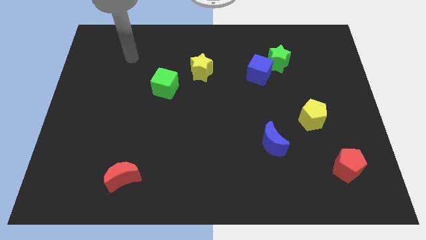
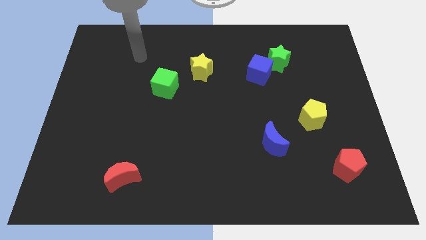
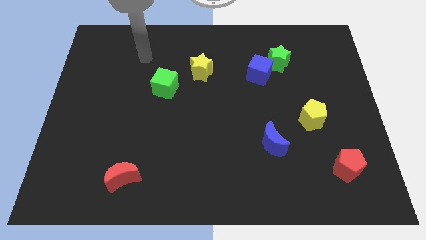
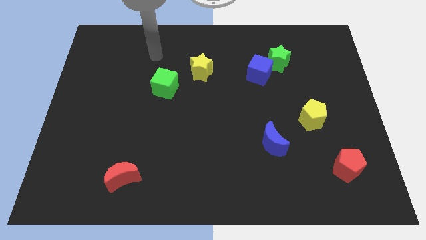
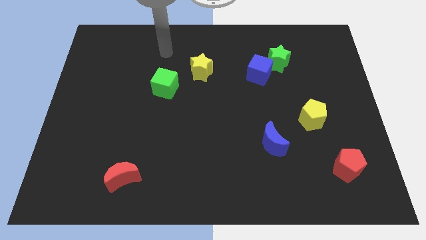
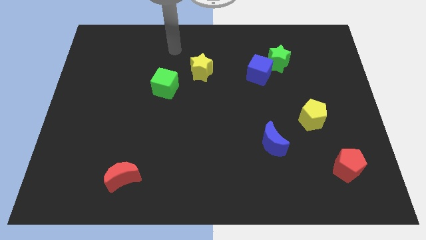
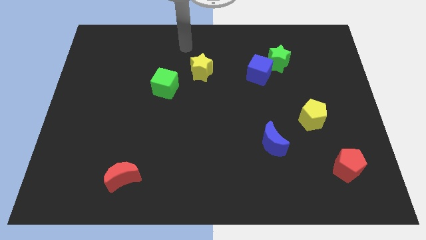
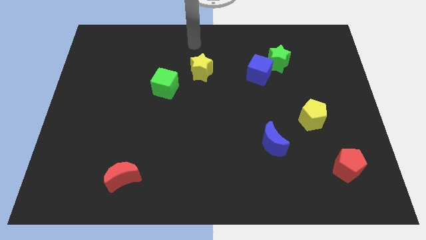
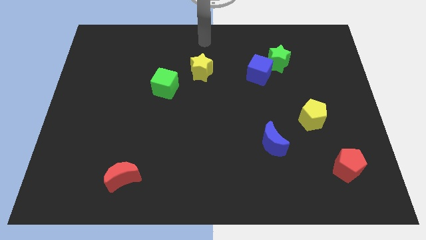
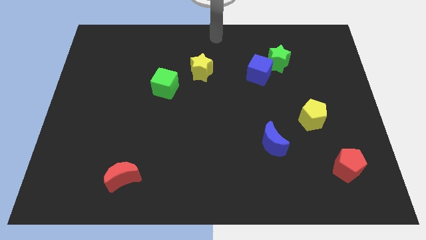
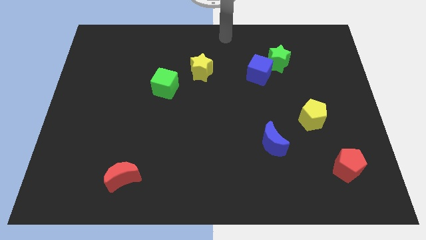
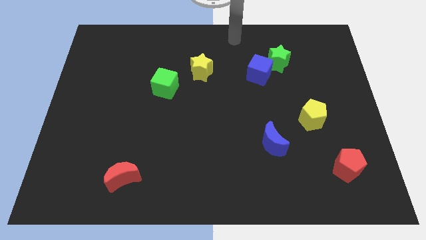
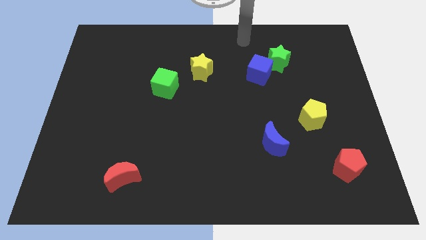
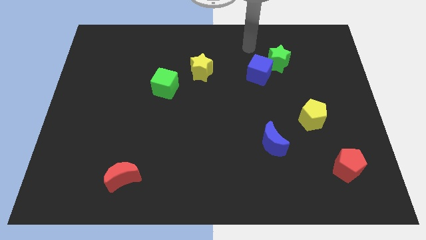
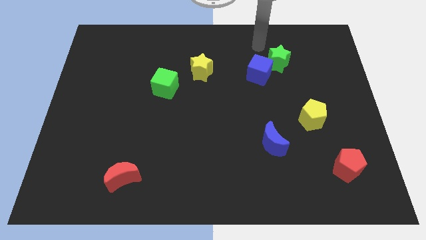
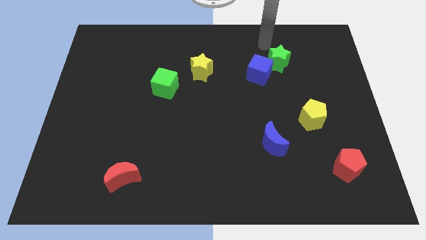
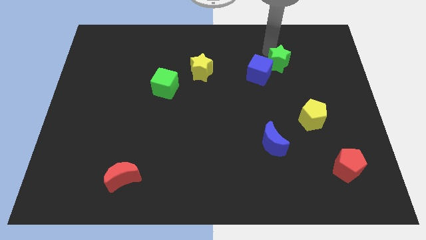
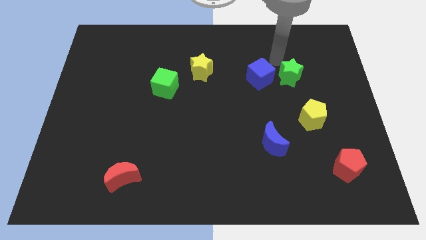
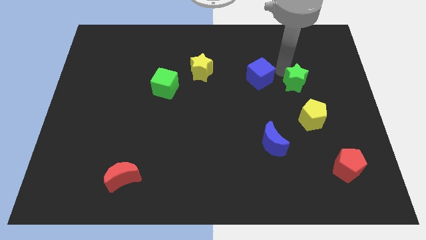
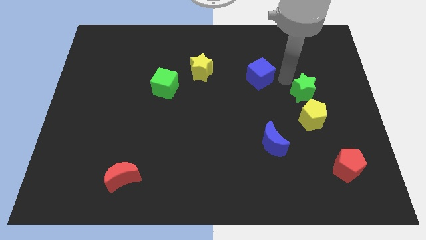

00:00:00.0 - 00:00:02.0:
move the blue cube away from the green star

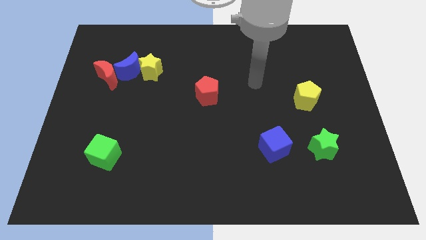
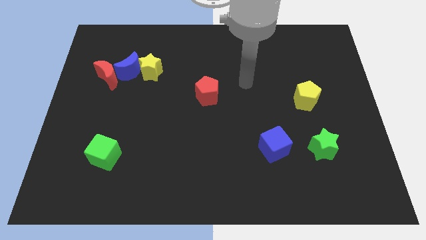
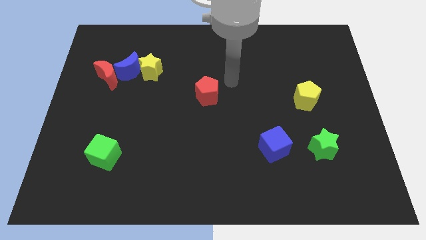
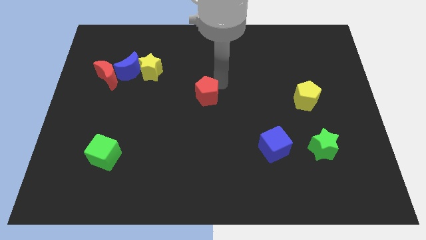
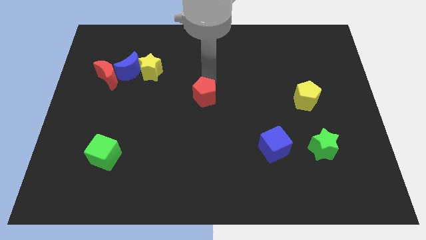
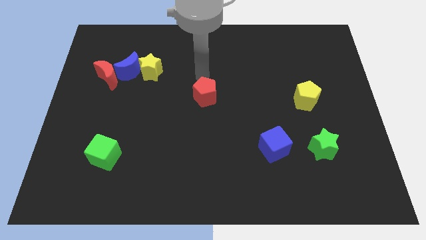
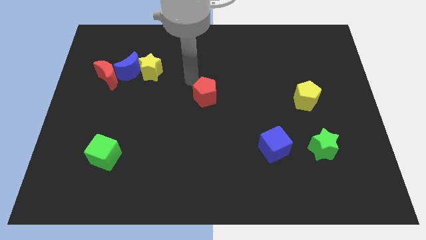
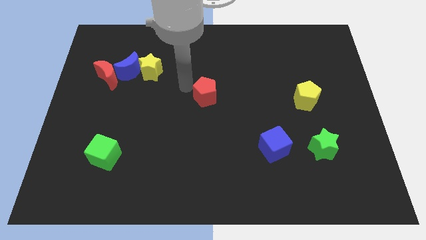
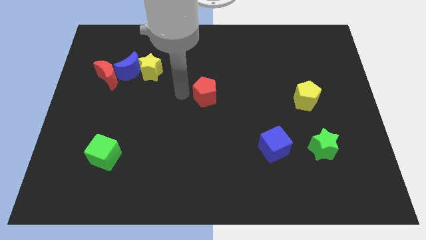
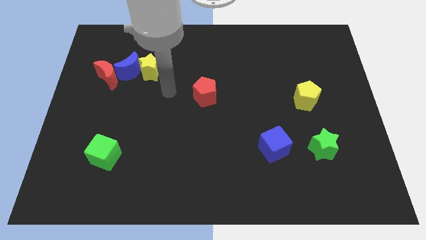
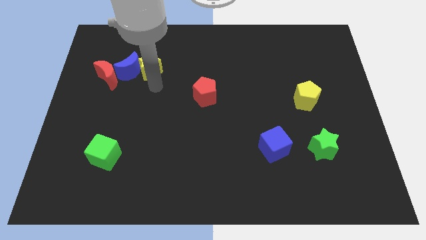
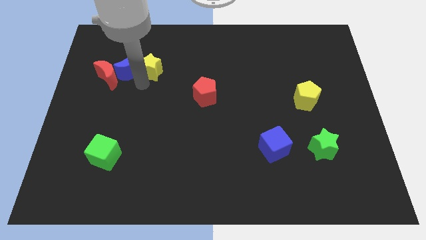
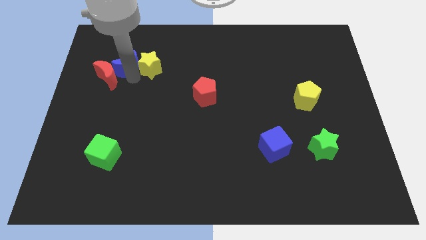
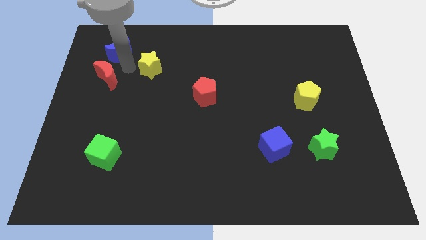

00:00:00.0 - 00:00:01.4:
move the yellow star away from the blue moon

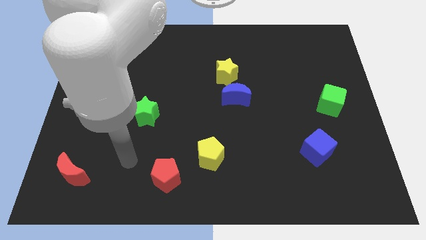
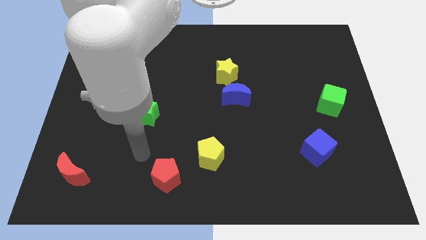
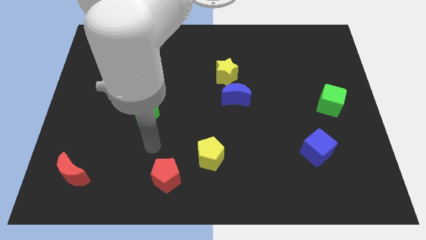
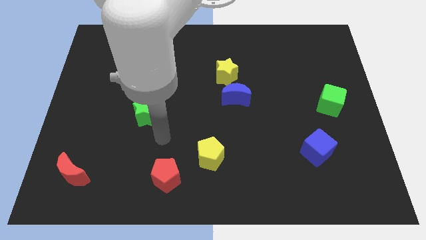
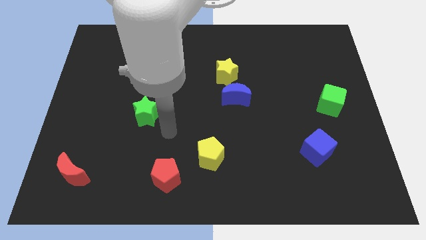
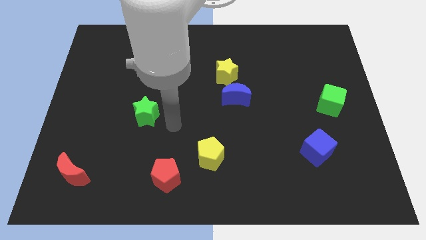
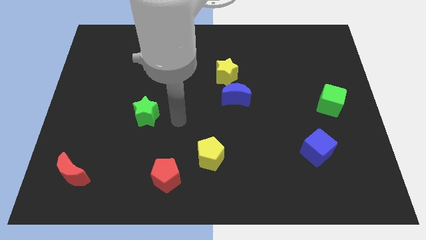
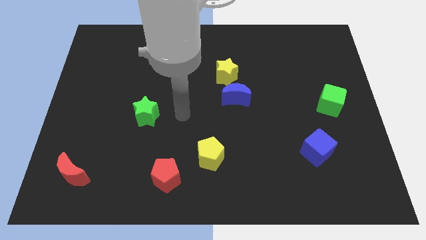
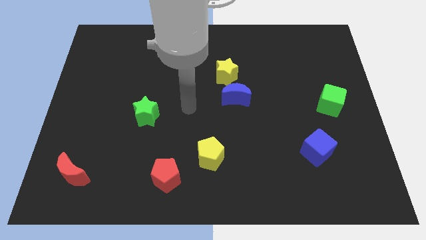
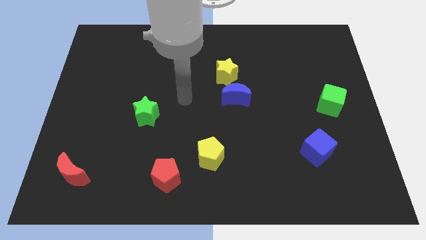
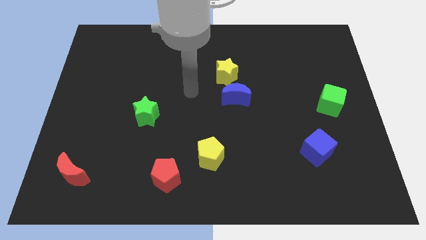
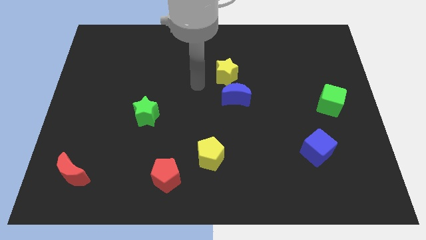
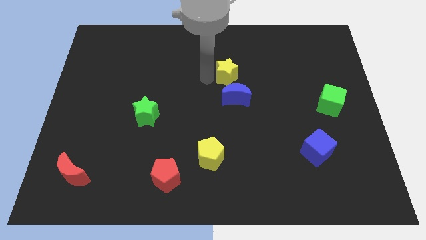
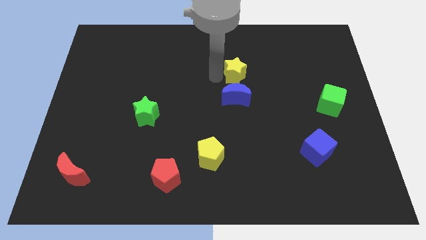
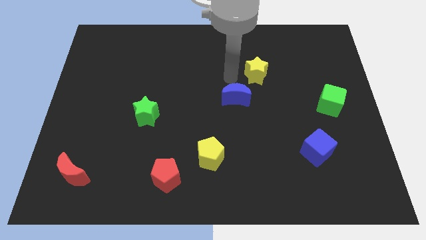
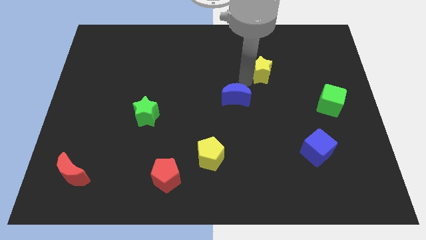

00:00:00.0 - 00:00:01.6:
separate the blue moon from the yellow star

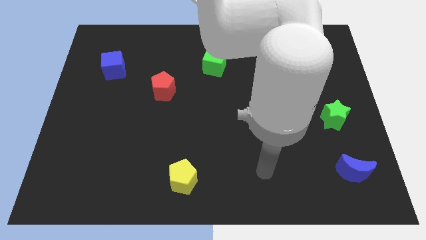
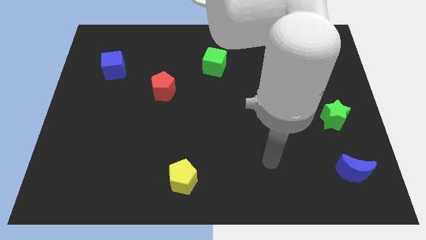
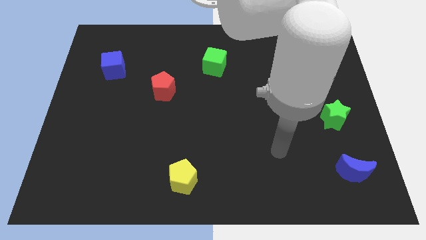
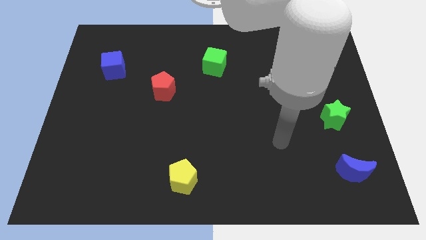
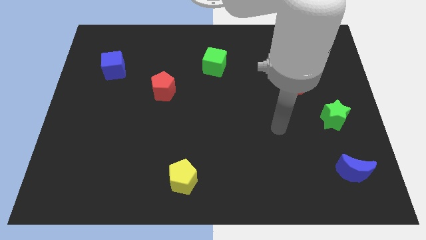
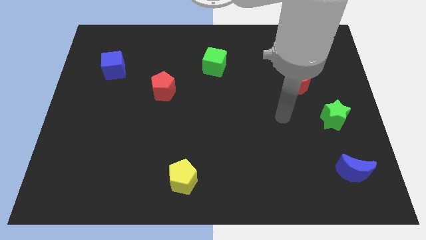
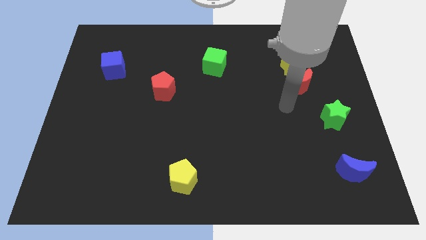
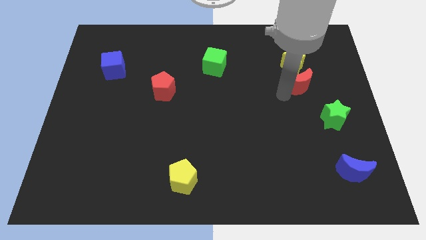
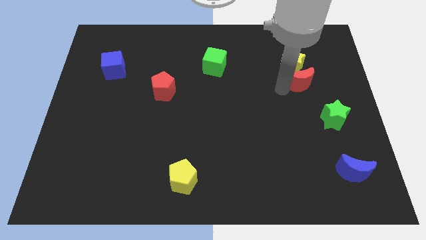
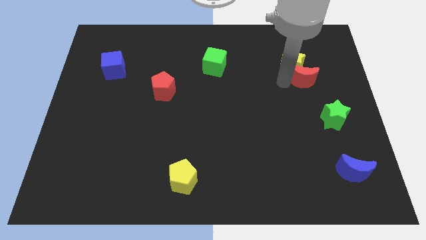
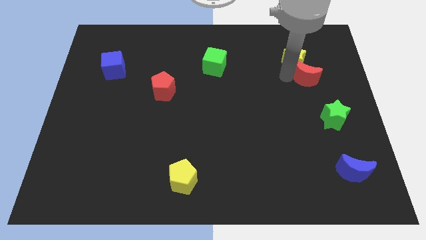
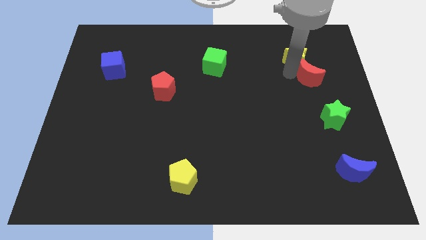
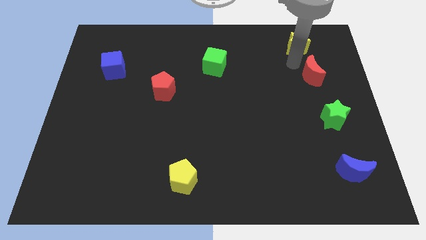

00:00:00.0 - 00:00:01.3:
pull the red moon apart from the yellow star

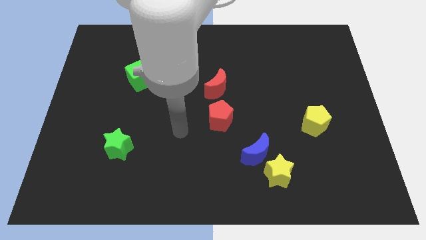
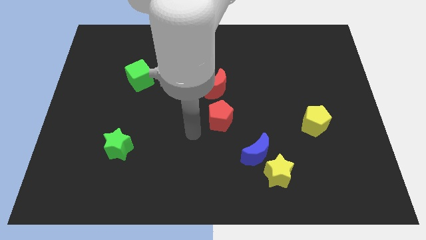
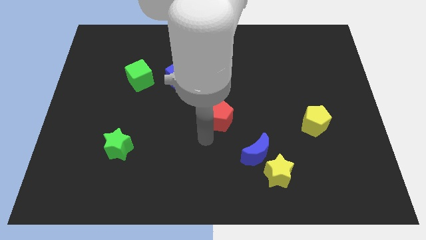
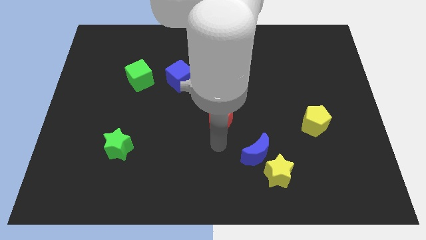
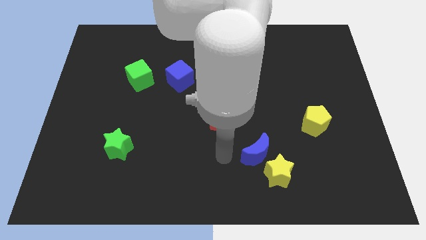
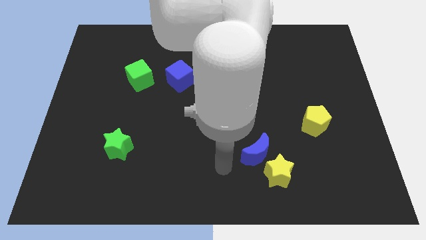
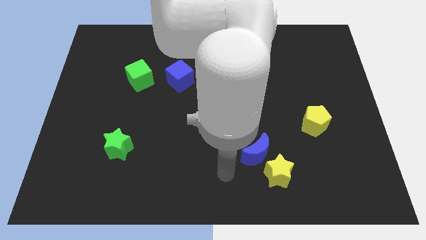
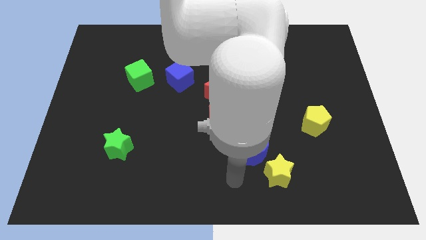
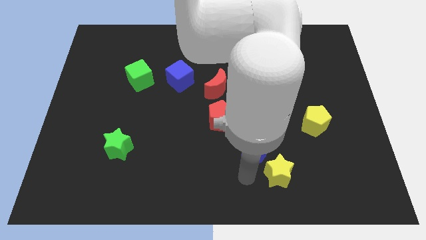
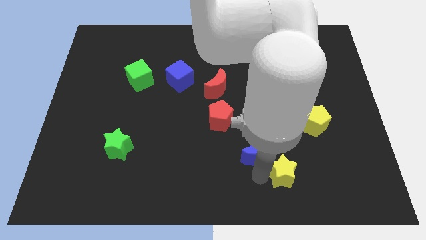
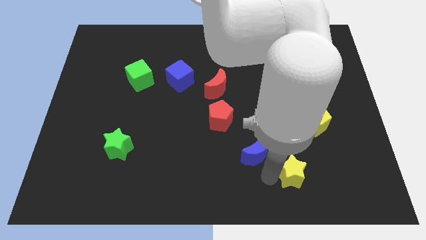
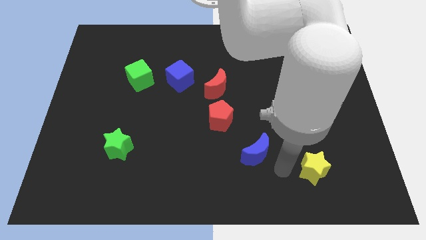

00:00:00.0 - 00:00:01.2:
pull the blue moon apart from the yellow star

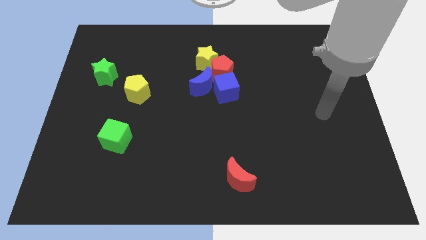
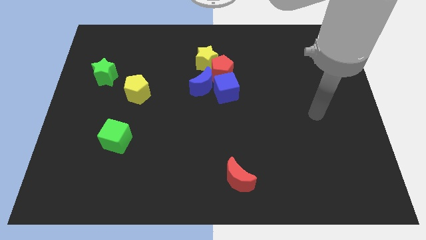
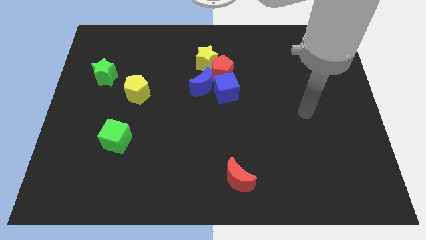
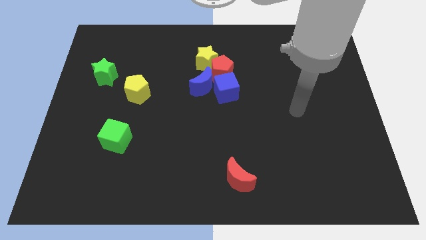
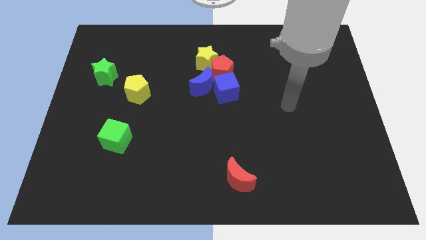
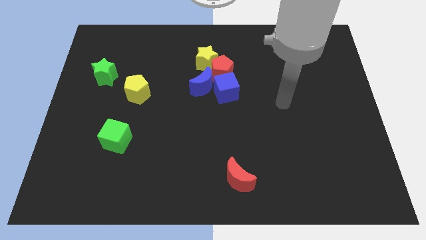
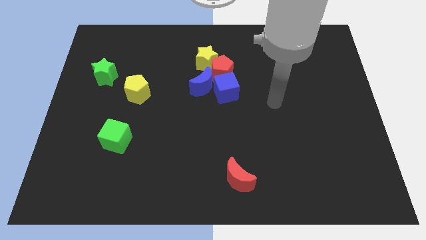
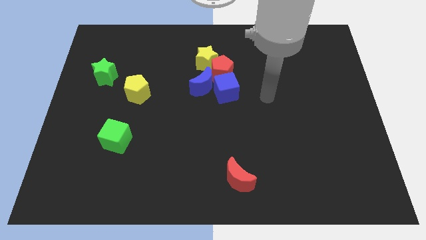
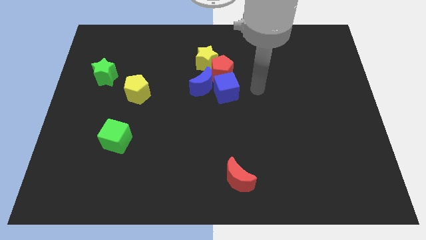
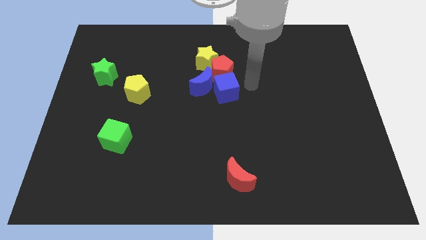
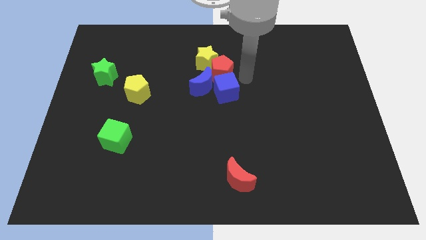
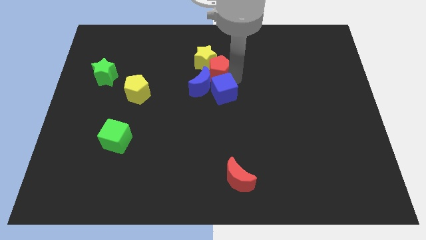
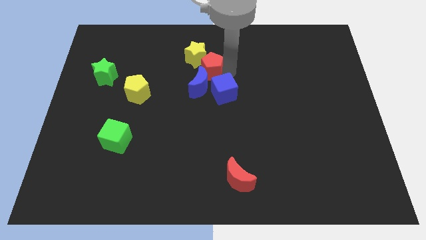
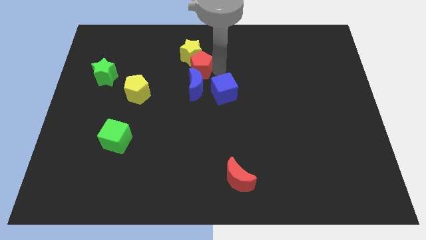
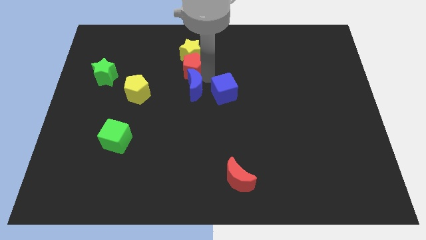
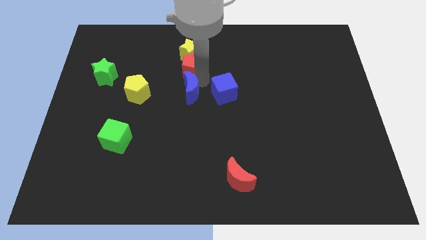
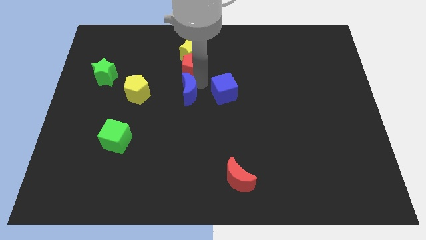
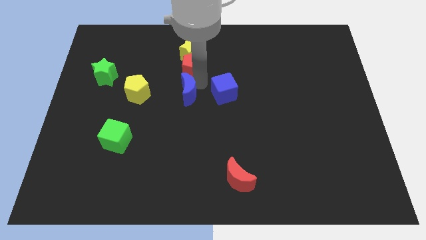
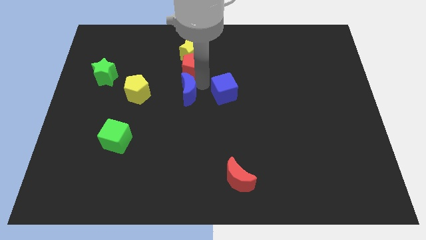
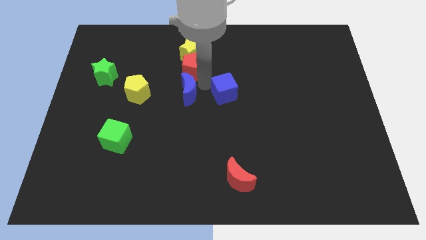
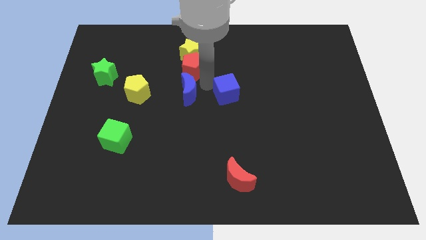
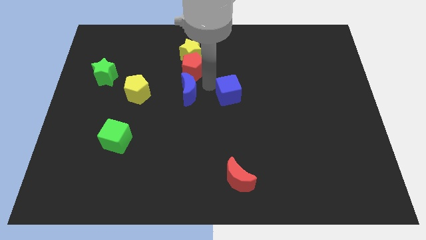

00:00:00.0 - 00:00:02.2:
separate the blue cube from the blue moon and red pentagon
